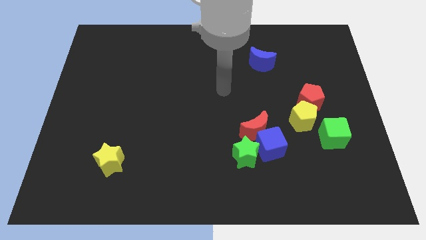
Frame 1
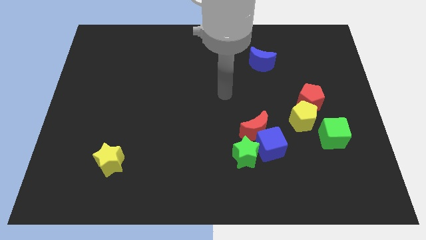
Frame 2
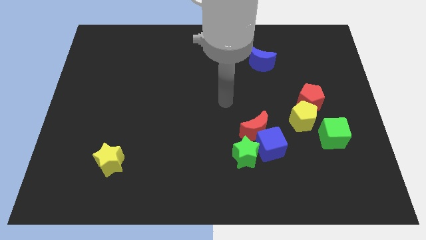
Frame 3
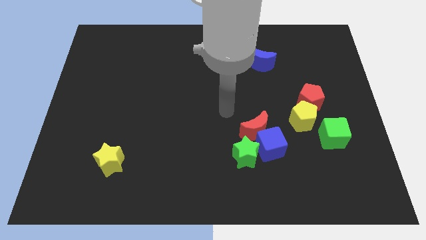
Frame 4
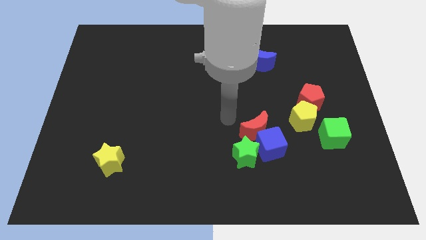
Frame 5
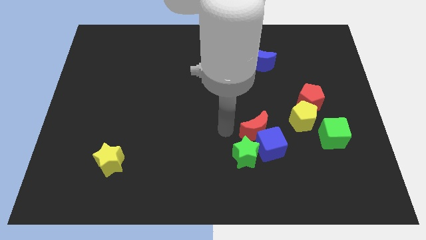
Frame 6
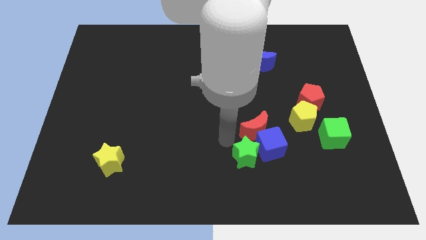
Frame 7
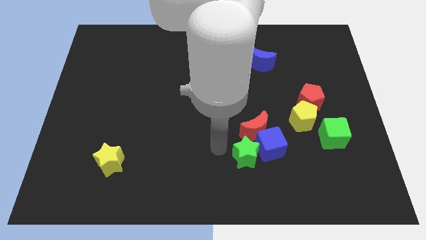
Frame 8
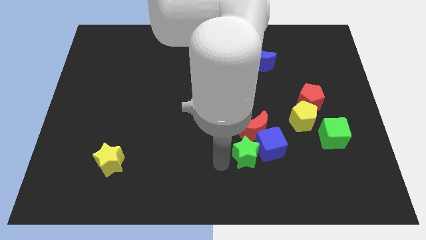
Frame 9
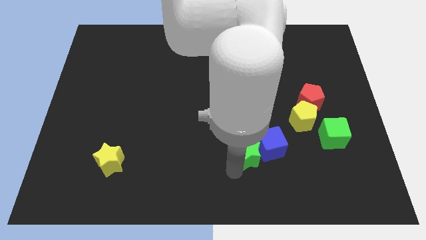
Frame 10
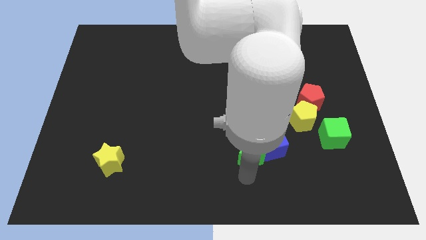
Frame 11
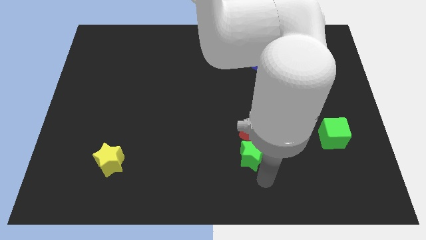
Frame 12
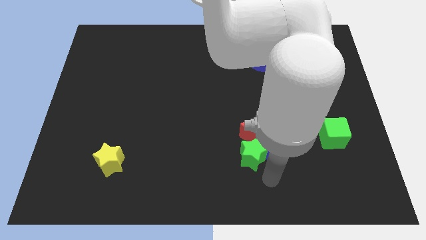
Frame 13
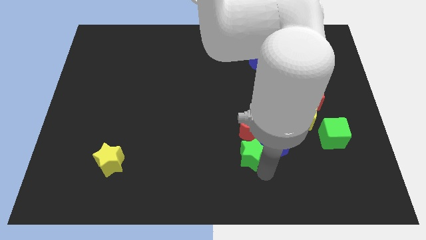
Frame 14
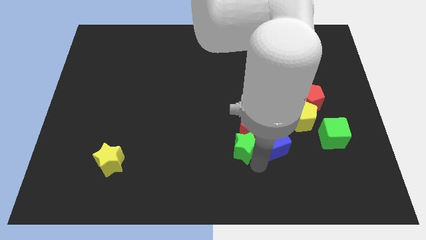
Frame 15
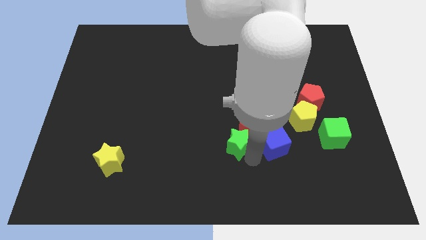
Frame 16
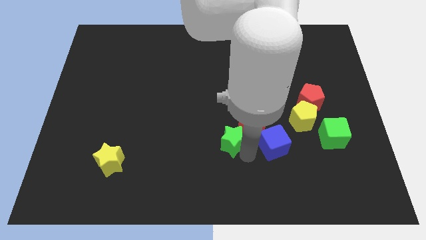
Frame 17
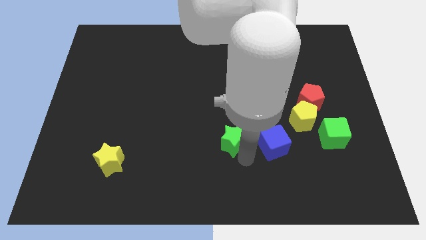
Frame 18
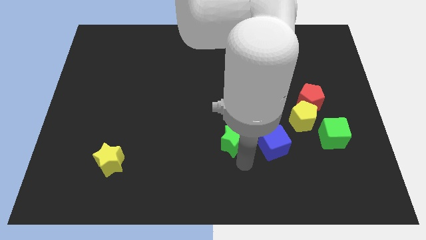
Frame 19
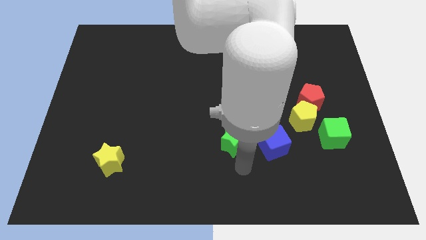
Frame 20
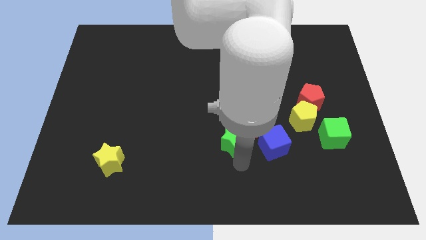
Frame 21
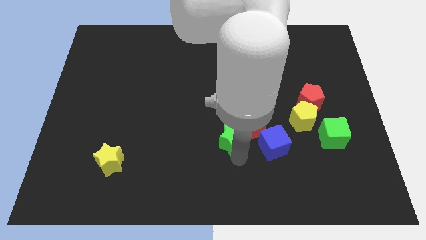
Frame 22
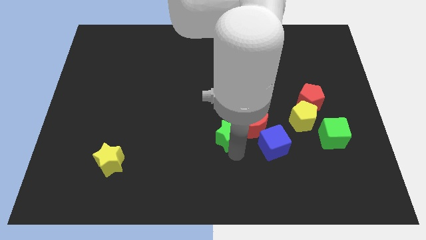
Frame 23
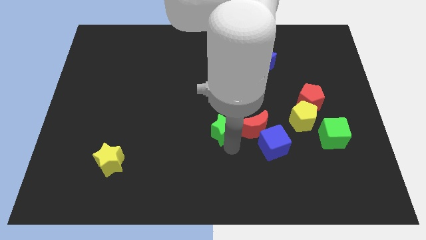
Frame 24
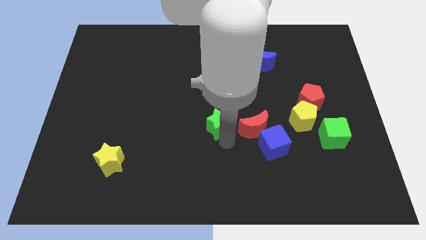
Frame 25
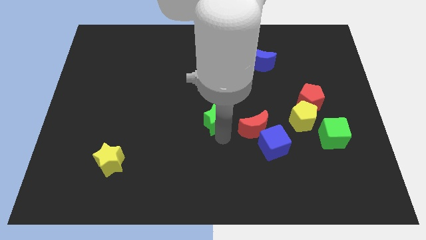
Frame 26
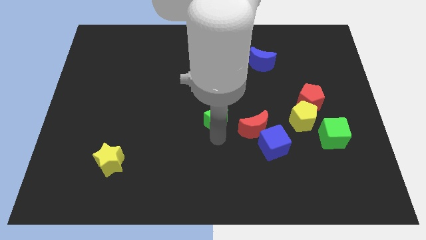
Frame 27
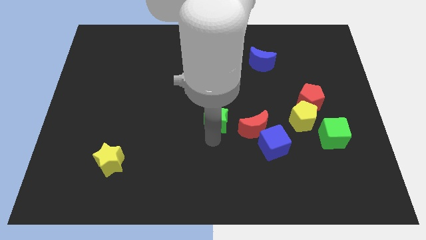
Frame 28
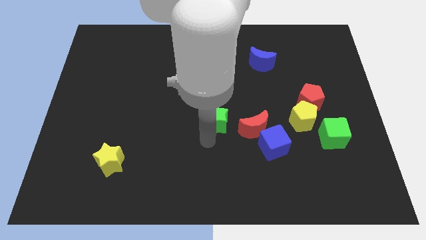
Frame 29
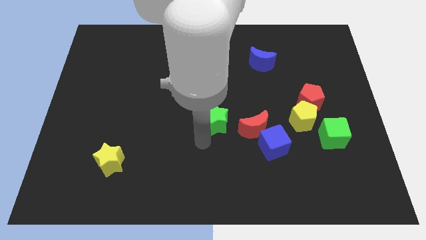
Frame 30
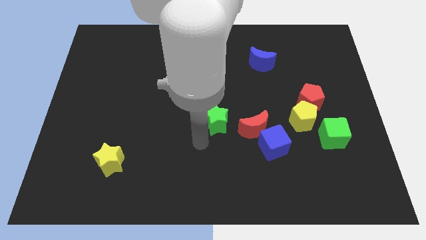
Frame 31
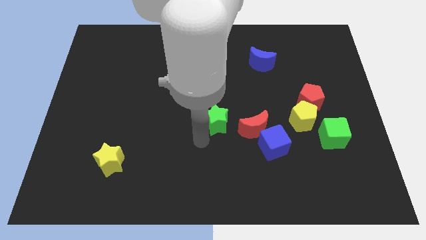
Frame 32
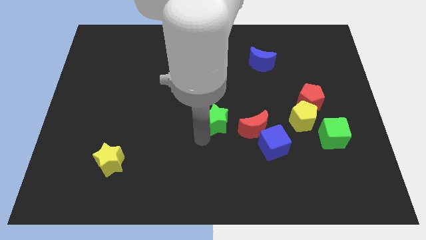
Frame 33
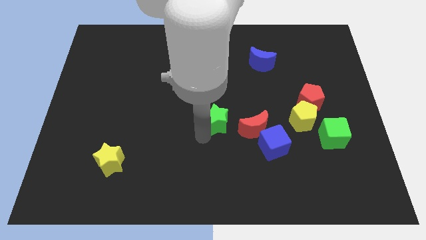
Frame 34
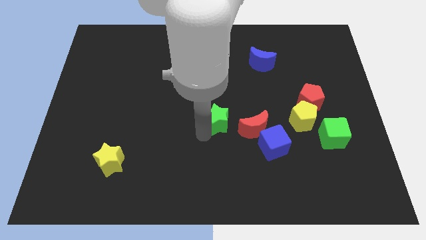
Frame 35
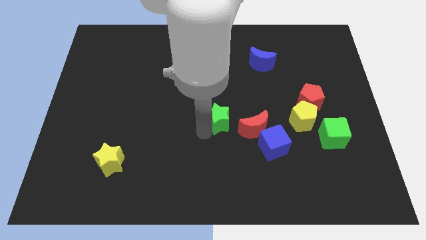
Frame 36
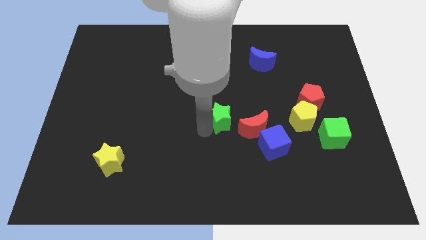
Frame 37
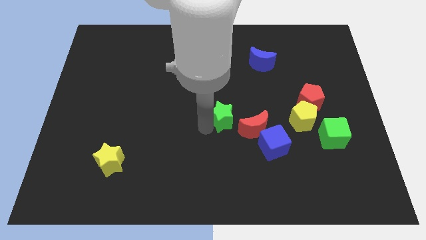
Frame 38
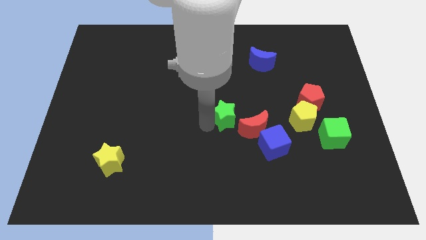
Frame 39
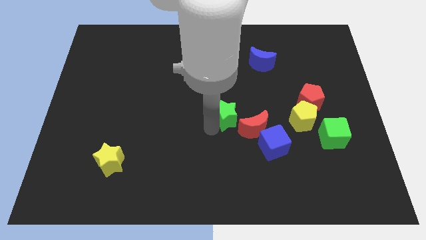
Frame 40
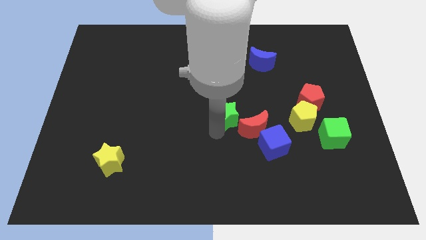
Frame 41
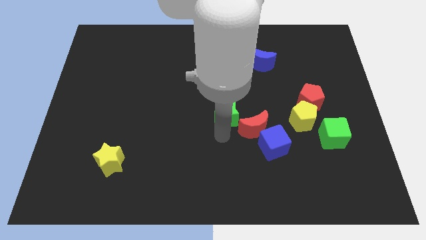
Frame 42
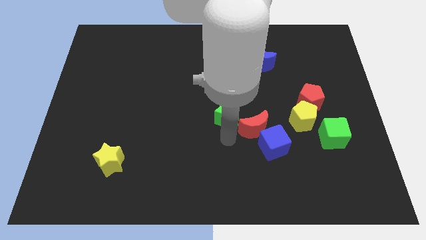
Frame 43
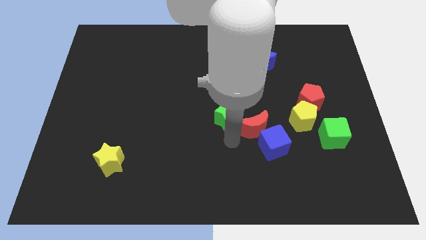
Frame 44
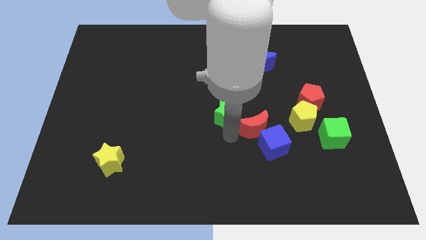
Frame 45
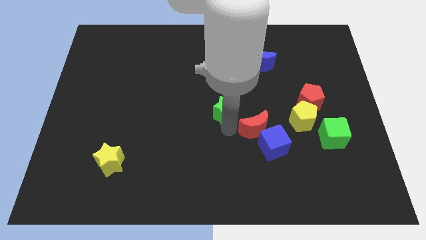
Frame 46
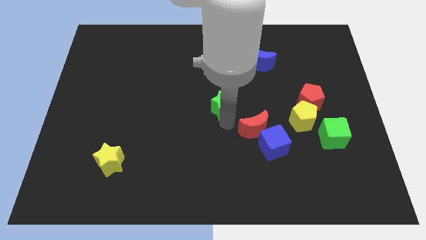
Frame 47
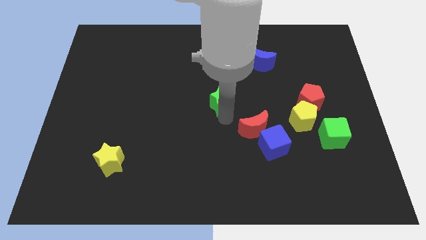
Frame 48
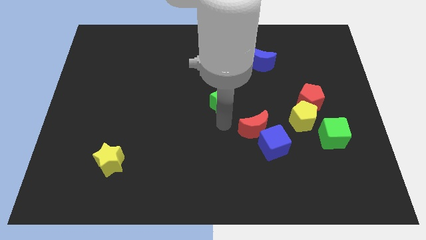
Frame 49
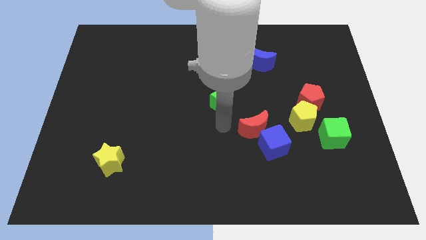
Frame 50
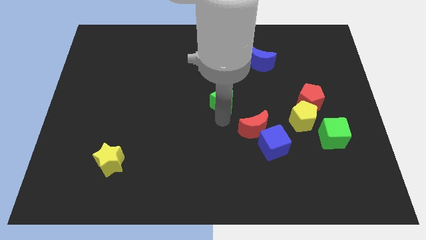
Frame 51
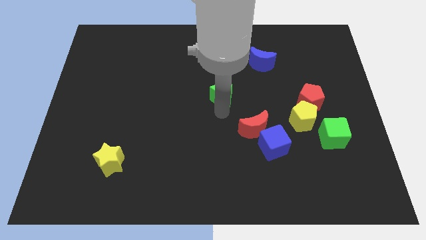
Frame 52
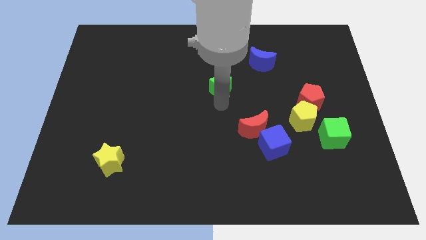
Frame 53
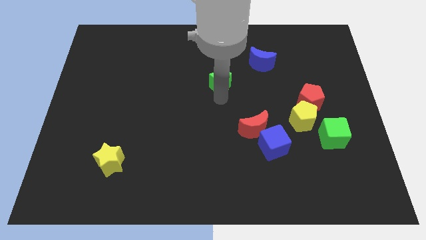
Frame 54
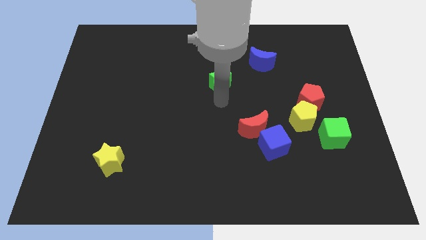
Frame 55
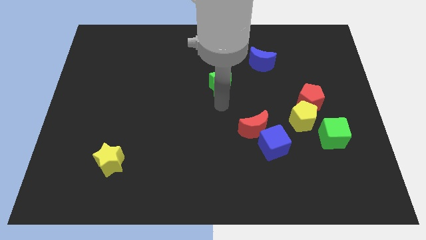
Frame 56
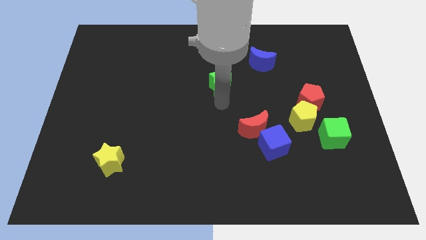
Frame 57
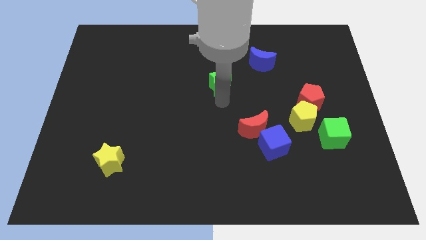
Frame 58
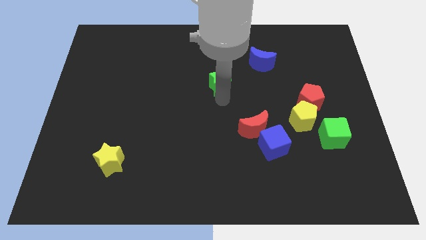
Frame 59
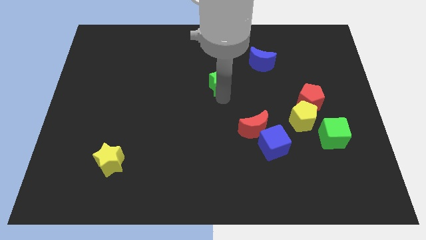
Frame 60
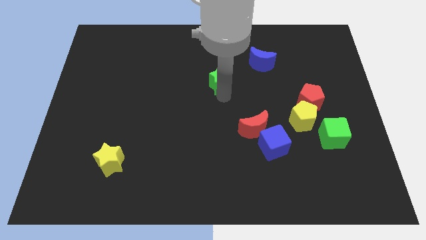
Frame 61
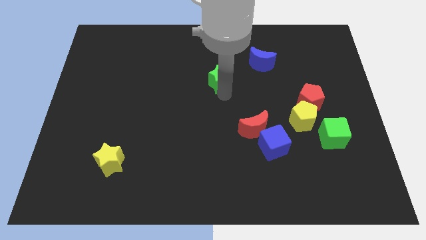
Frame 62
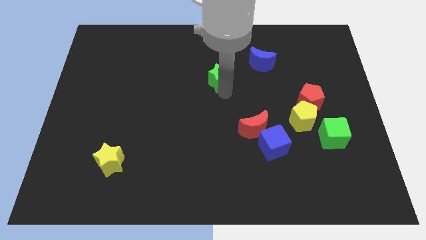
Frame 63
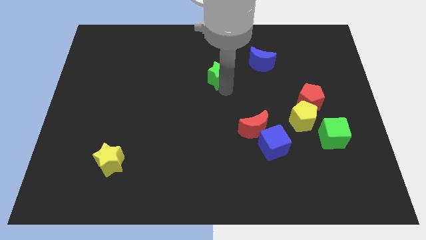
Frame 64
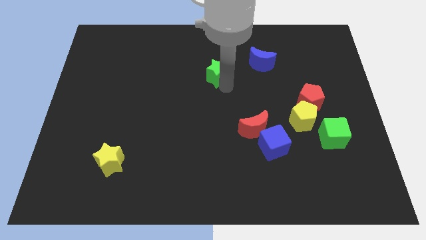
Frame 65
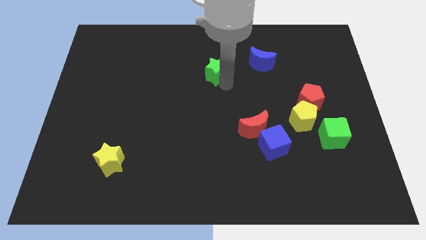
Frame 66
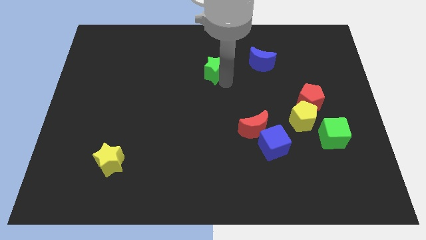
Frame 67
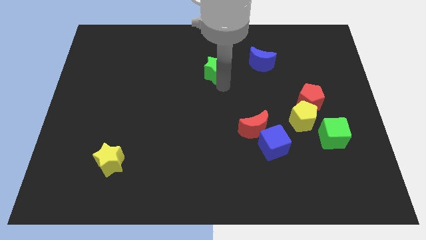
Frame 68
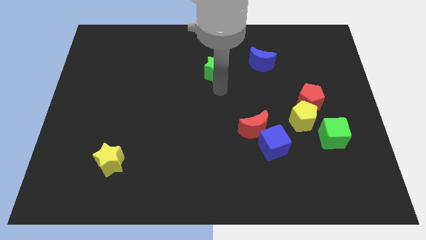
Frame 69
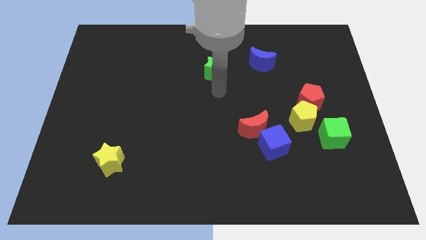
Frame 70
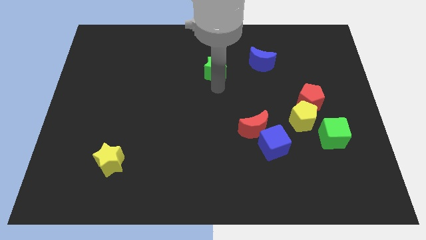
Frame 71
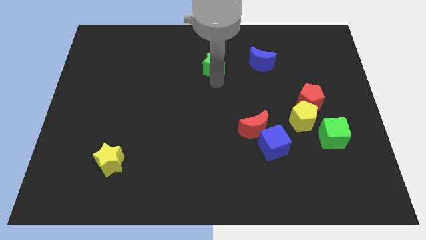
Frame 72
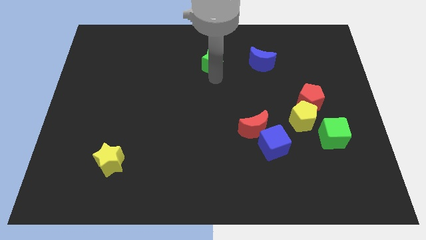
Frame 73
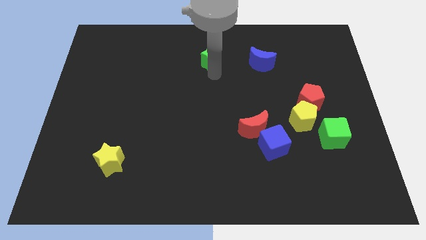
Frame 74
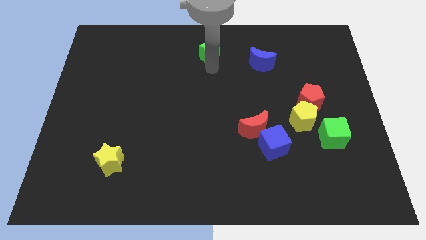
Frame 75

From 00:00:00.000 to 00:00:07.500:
slide the green star to the towards your base
